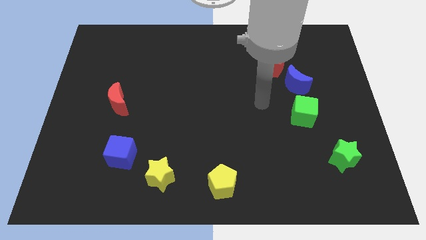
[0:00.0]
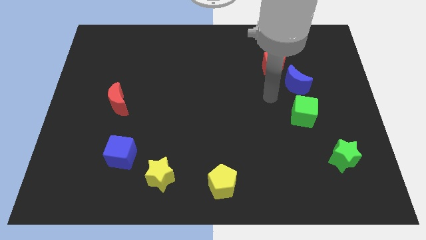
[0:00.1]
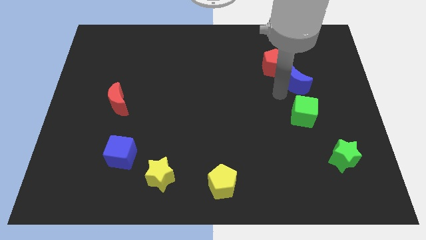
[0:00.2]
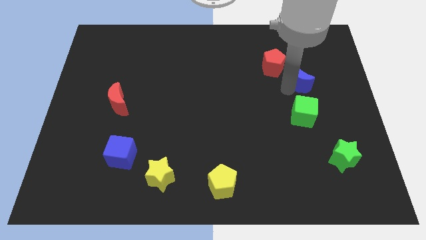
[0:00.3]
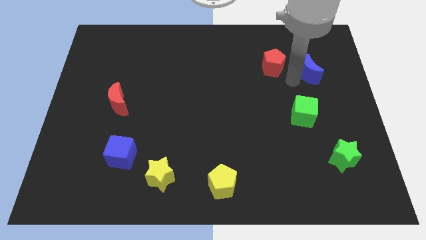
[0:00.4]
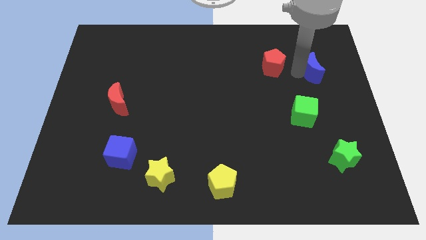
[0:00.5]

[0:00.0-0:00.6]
separate the red pentagon from the blue moon

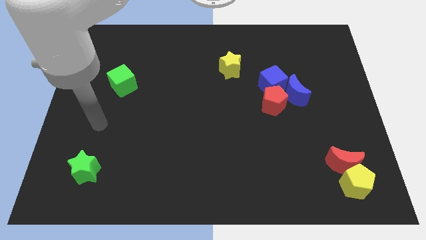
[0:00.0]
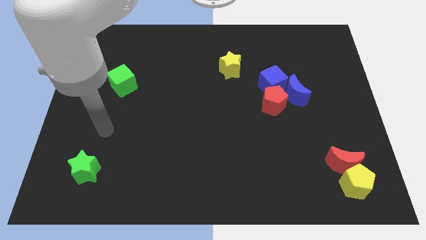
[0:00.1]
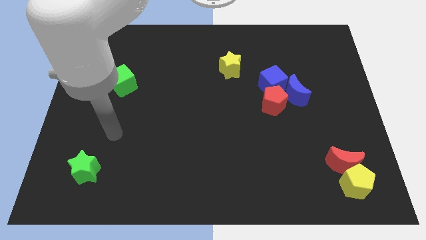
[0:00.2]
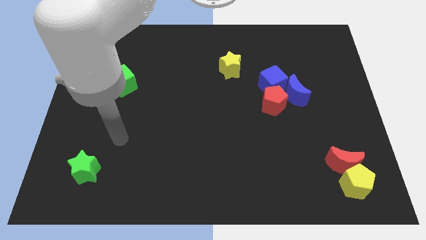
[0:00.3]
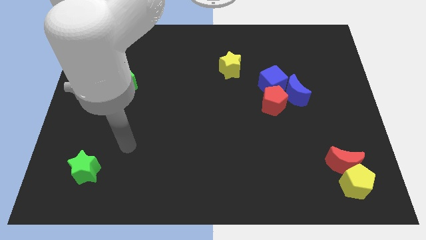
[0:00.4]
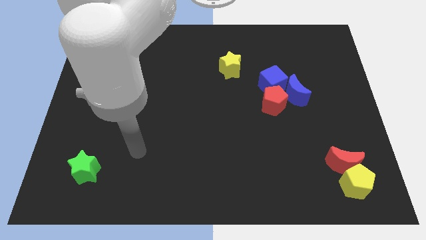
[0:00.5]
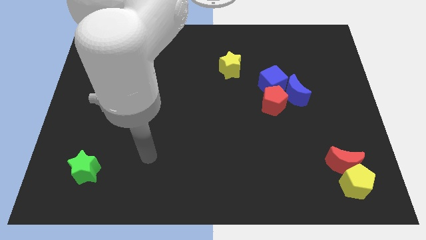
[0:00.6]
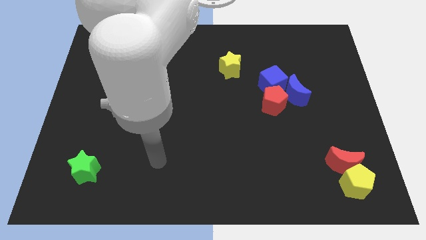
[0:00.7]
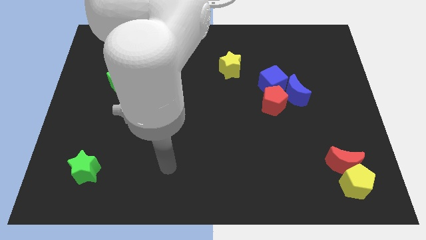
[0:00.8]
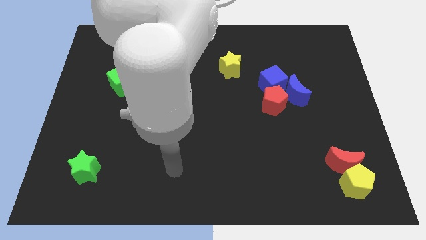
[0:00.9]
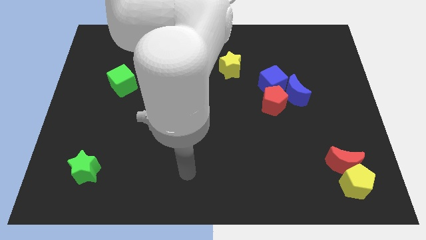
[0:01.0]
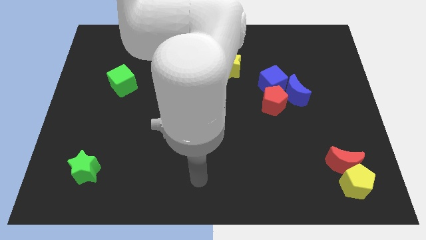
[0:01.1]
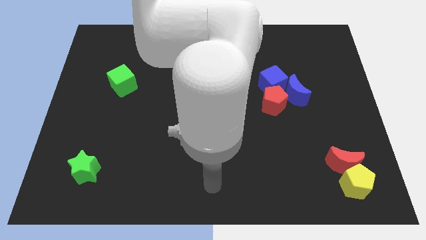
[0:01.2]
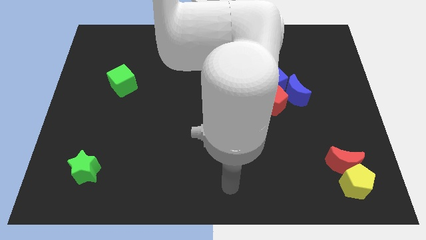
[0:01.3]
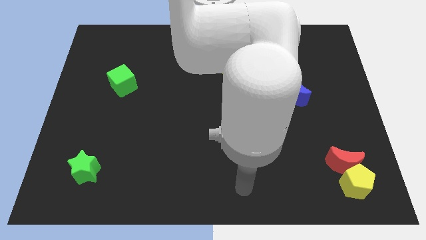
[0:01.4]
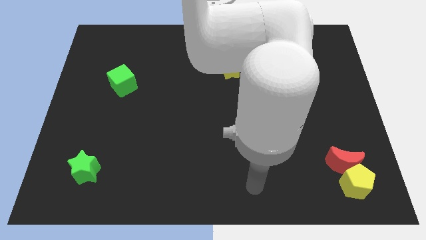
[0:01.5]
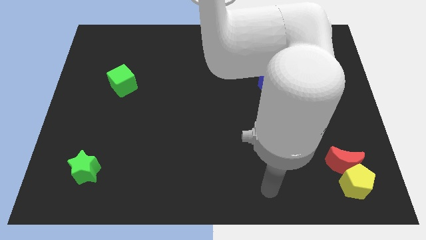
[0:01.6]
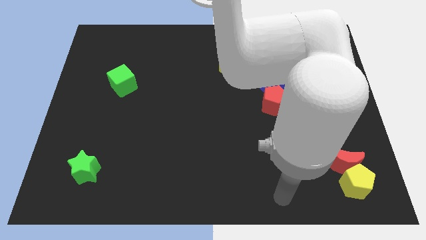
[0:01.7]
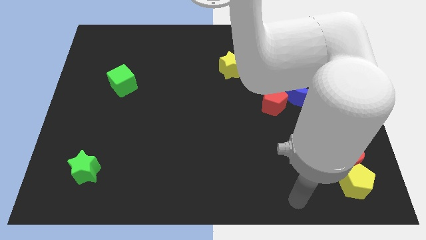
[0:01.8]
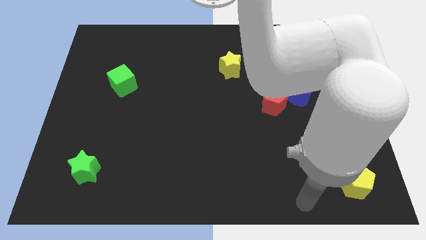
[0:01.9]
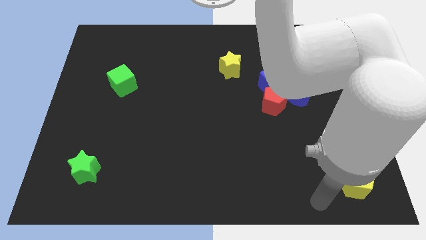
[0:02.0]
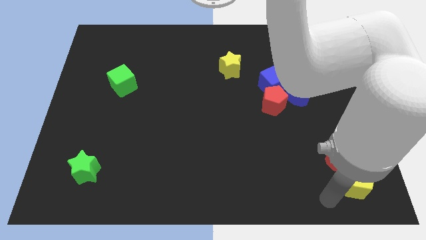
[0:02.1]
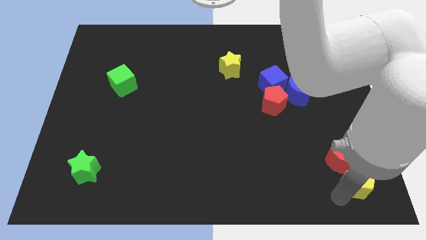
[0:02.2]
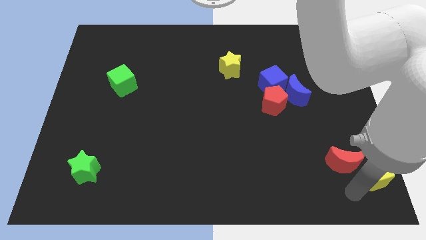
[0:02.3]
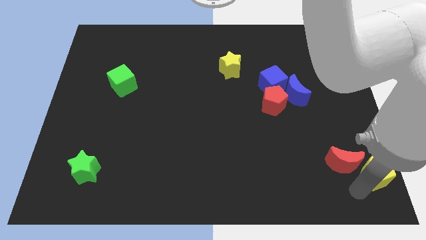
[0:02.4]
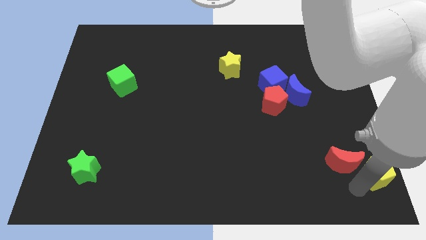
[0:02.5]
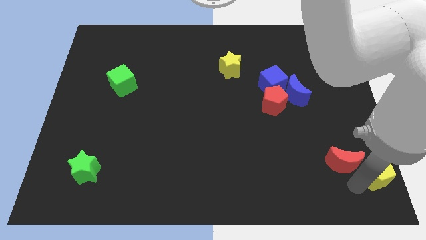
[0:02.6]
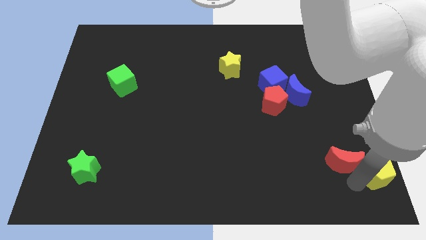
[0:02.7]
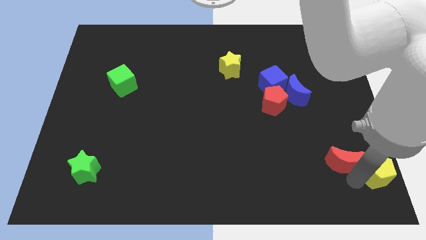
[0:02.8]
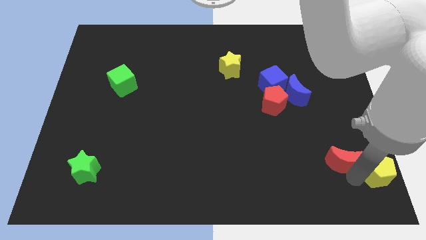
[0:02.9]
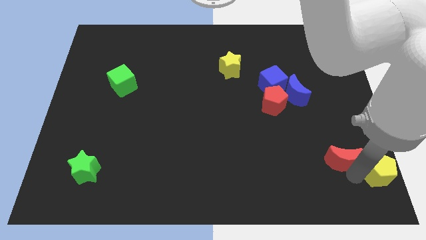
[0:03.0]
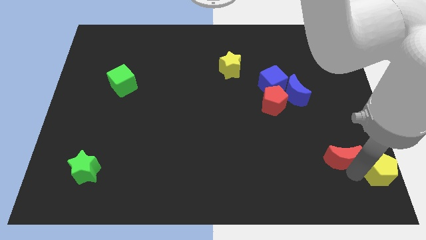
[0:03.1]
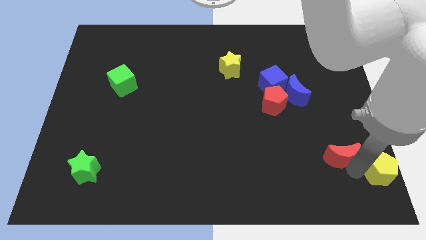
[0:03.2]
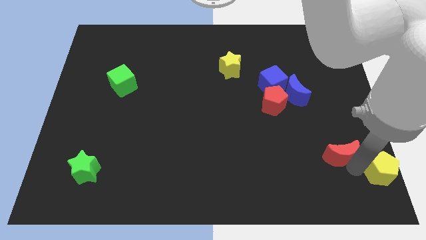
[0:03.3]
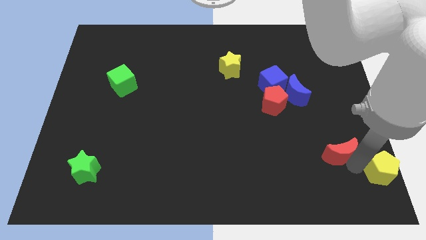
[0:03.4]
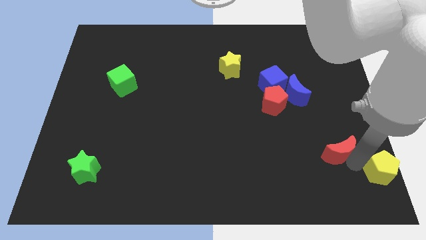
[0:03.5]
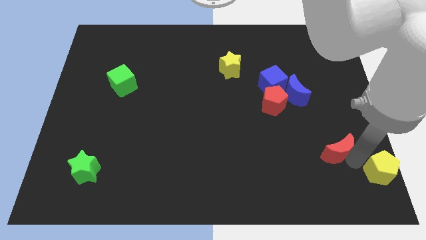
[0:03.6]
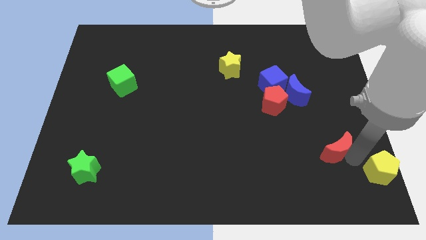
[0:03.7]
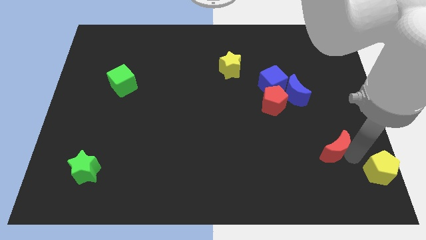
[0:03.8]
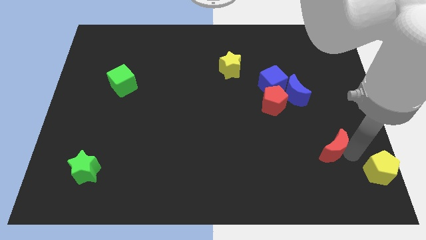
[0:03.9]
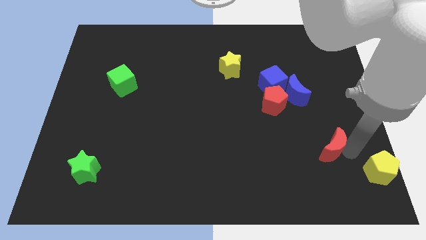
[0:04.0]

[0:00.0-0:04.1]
separate the red moon from the yellow pentagon

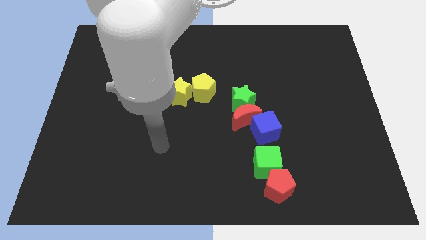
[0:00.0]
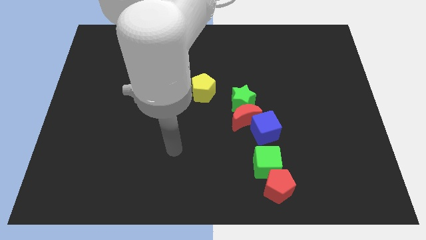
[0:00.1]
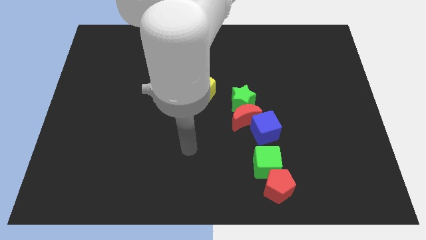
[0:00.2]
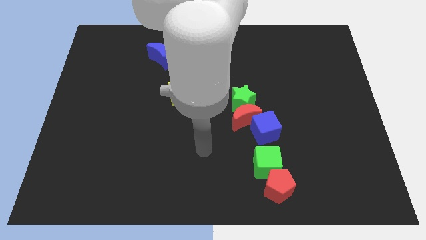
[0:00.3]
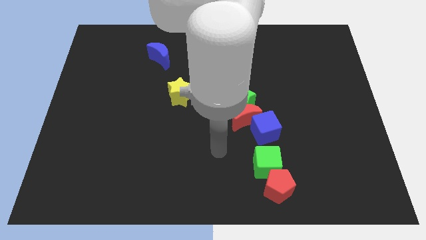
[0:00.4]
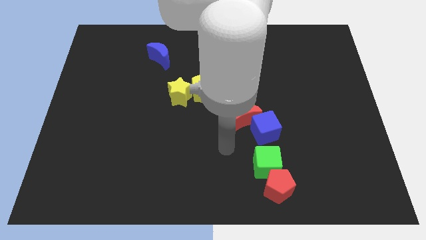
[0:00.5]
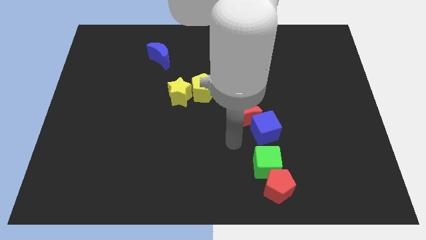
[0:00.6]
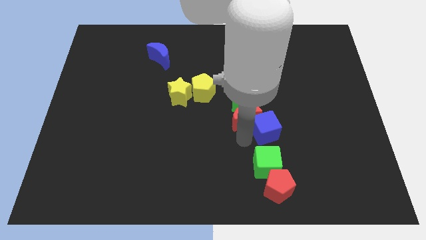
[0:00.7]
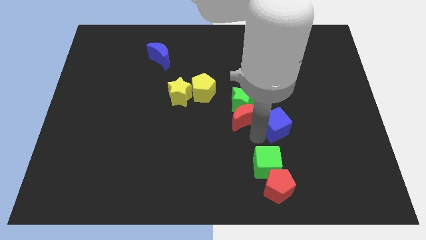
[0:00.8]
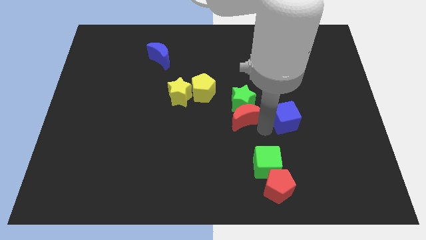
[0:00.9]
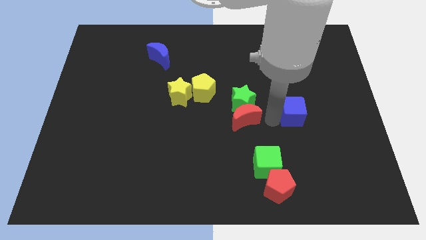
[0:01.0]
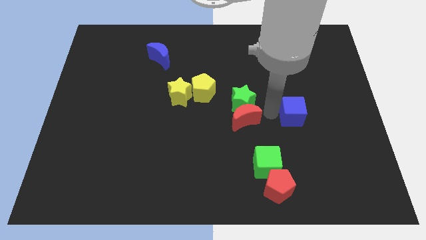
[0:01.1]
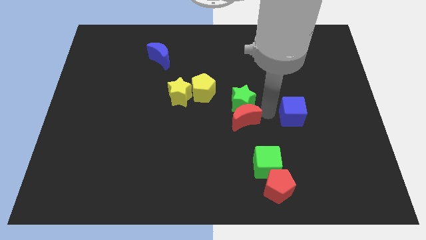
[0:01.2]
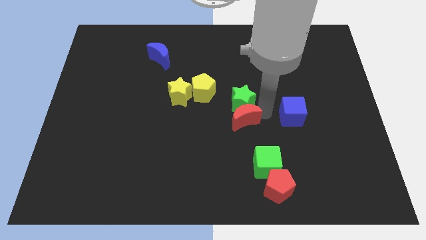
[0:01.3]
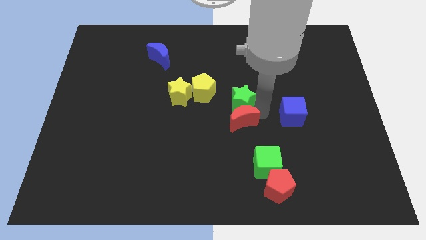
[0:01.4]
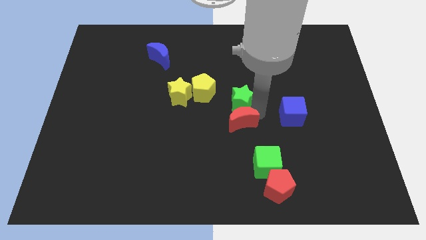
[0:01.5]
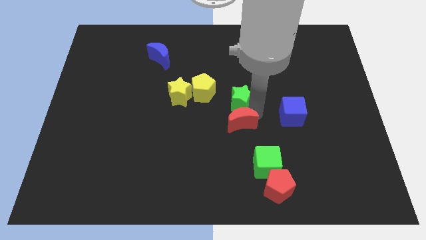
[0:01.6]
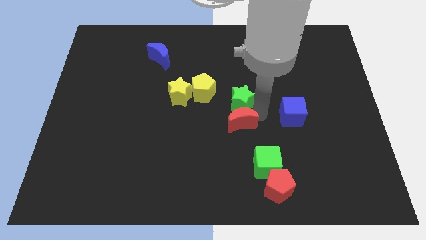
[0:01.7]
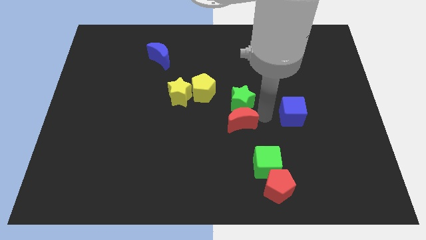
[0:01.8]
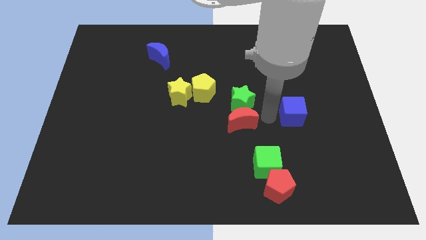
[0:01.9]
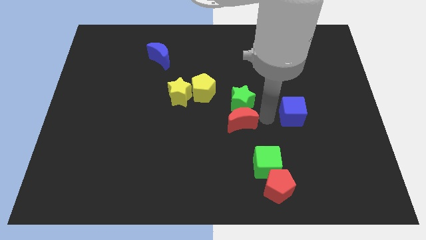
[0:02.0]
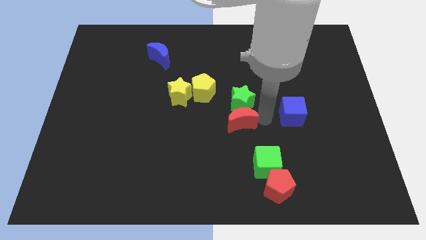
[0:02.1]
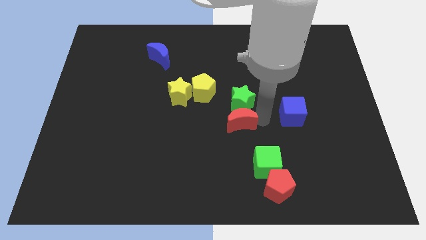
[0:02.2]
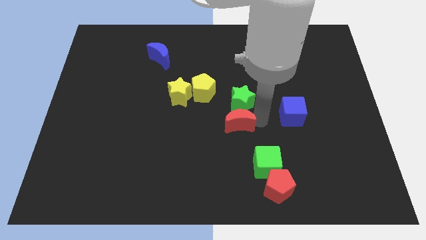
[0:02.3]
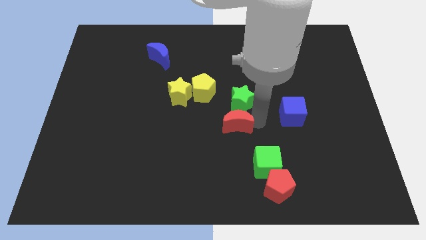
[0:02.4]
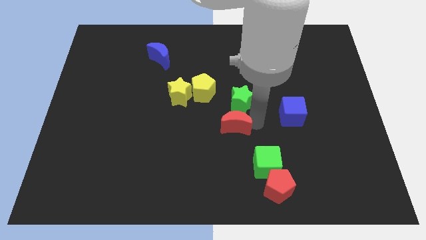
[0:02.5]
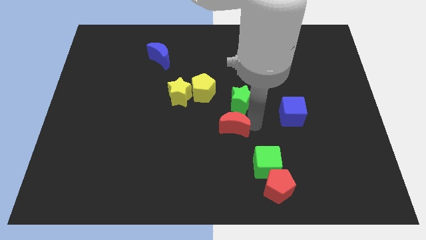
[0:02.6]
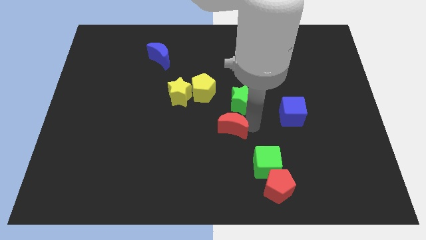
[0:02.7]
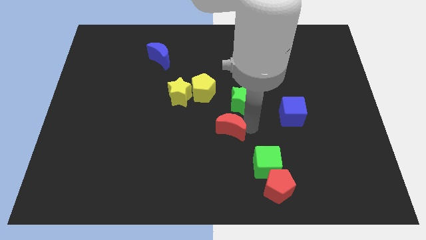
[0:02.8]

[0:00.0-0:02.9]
move the red moon away from the green star and blue cube

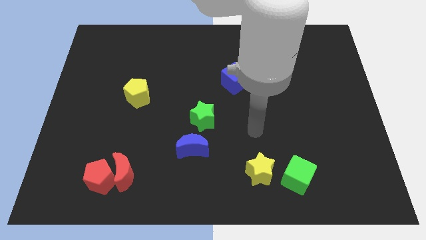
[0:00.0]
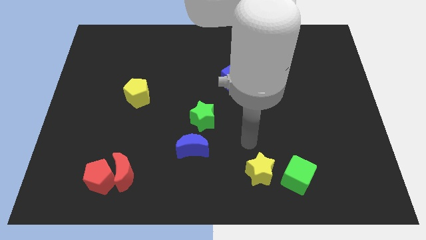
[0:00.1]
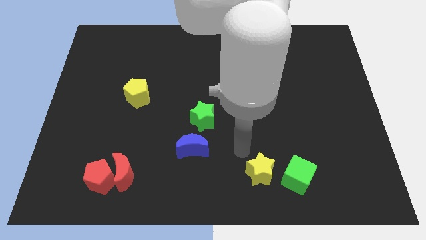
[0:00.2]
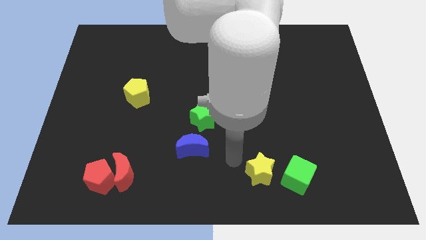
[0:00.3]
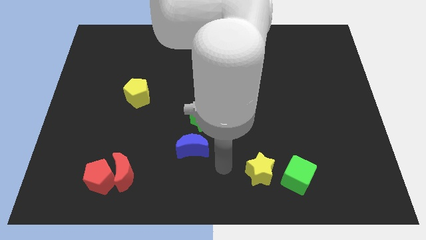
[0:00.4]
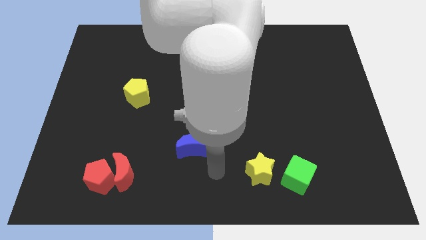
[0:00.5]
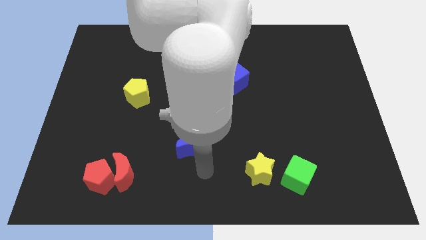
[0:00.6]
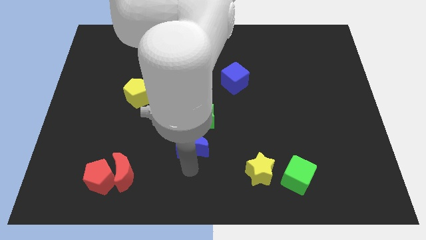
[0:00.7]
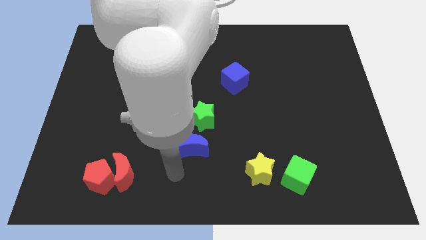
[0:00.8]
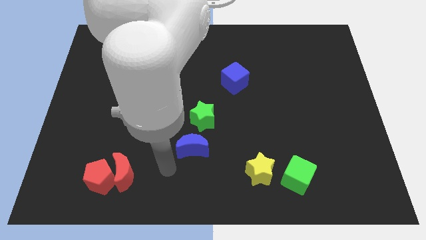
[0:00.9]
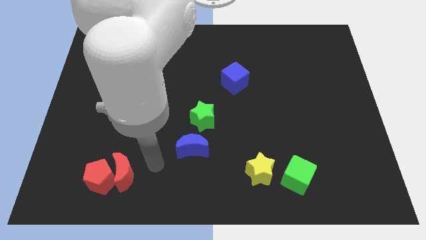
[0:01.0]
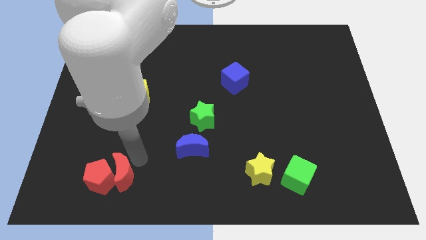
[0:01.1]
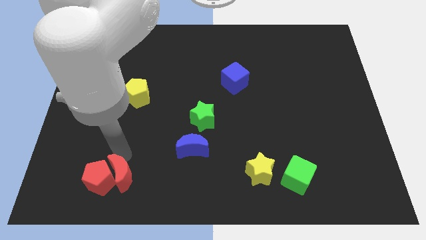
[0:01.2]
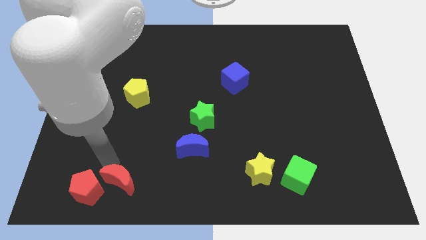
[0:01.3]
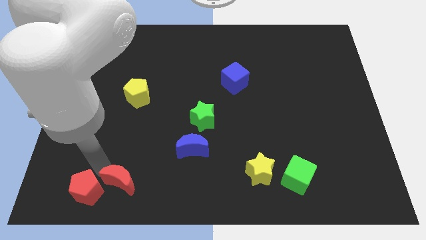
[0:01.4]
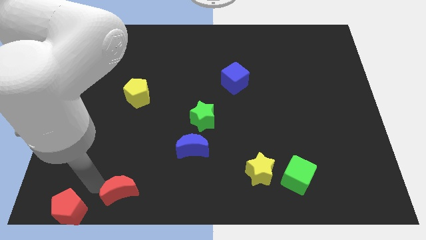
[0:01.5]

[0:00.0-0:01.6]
move the red moon away from the red pentagon

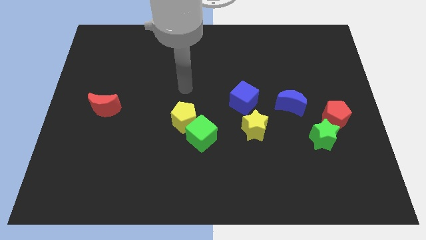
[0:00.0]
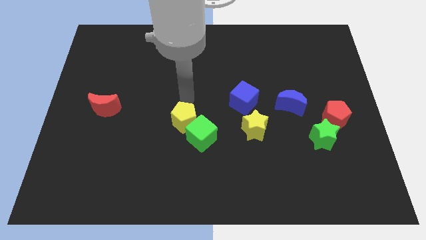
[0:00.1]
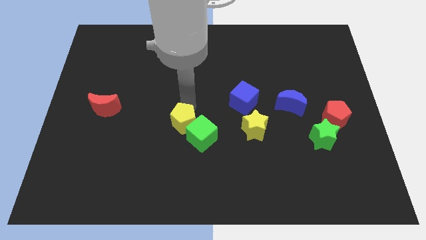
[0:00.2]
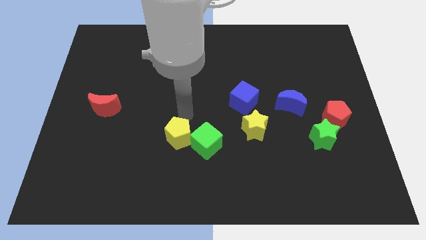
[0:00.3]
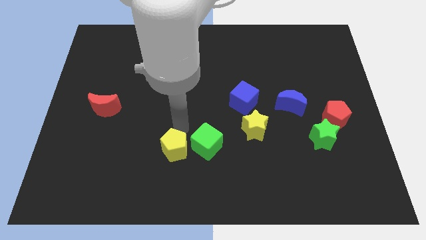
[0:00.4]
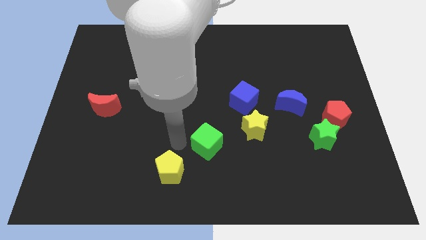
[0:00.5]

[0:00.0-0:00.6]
separate the green cube from the yellow pentagon
